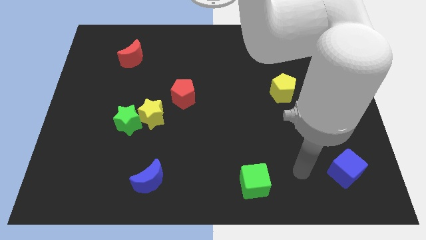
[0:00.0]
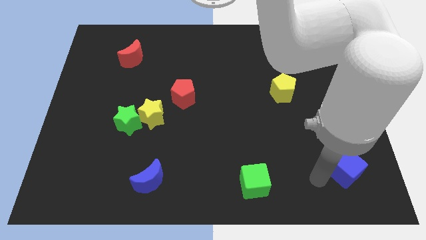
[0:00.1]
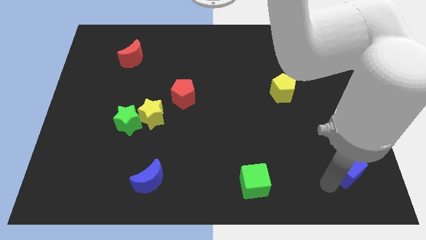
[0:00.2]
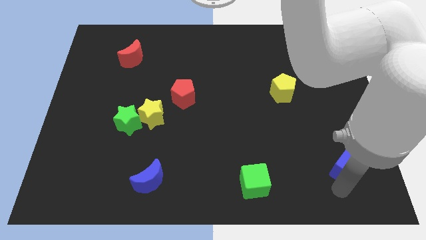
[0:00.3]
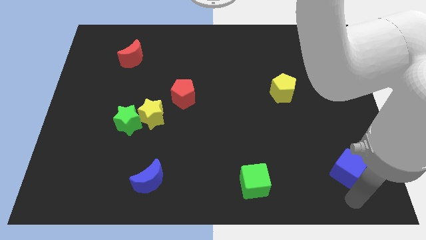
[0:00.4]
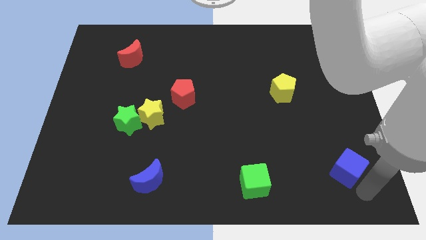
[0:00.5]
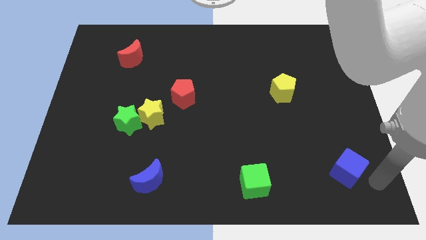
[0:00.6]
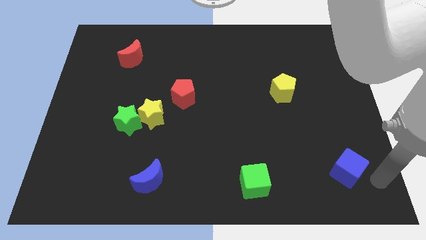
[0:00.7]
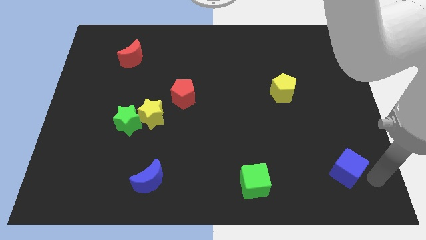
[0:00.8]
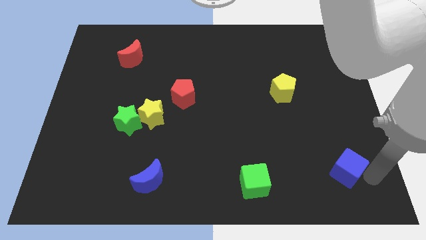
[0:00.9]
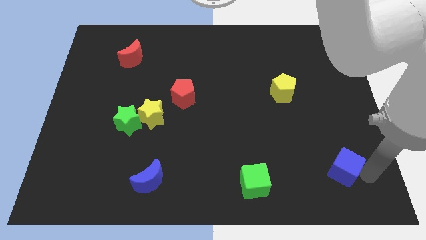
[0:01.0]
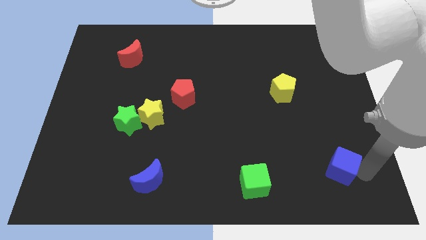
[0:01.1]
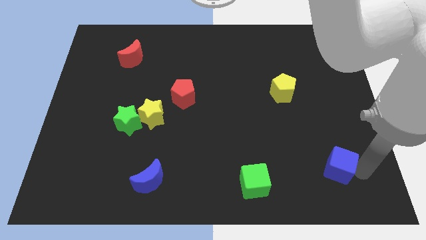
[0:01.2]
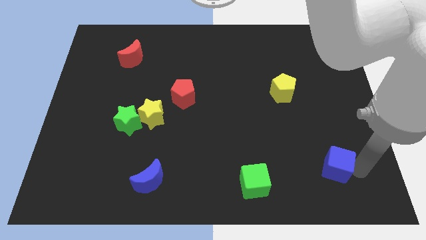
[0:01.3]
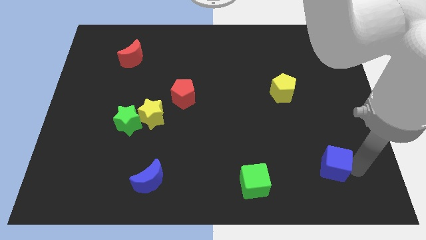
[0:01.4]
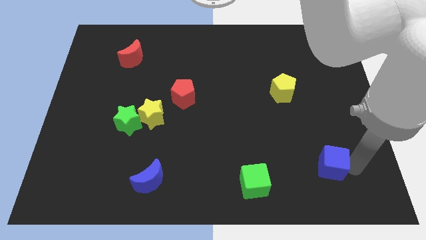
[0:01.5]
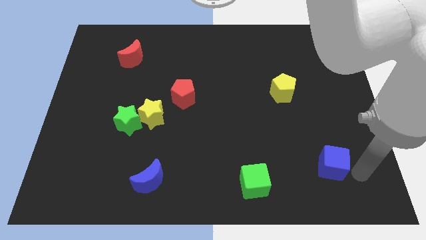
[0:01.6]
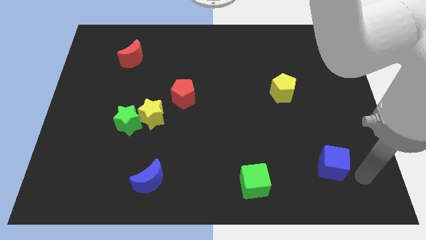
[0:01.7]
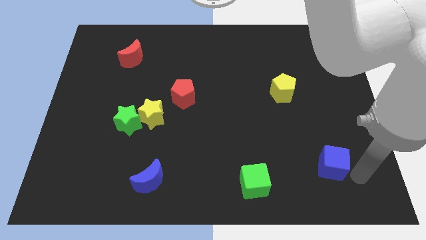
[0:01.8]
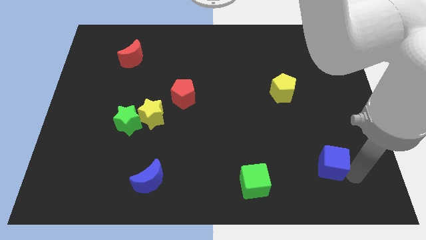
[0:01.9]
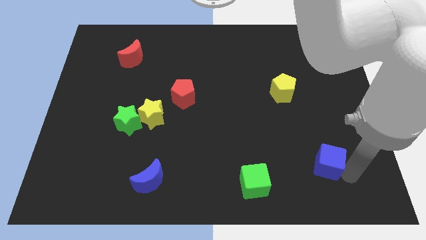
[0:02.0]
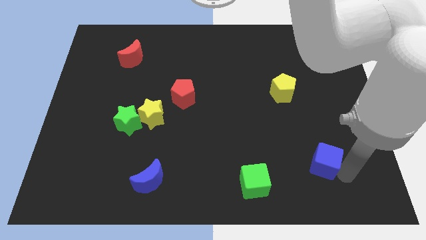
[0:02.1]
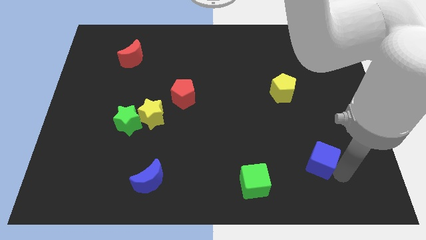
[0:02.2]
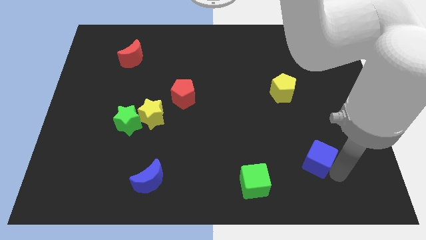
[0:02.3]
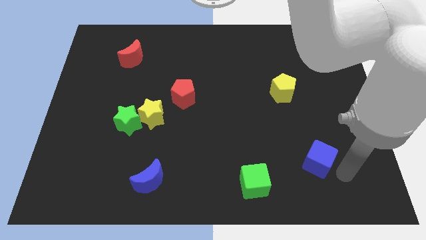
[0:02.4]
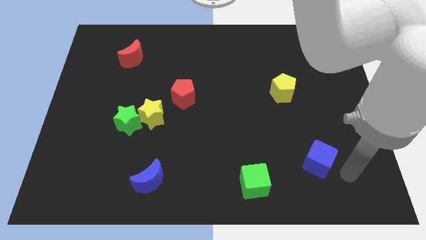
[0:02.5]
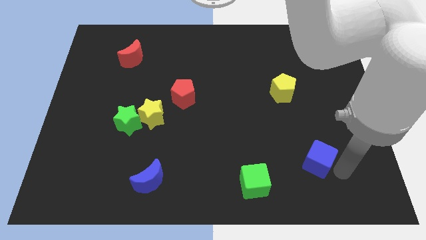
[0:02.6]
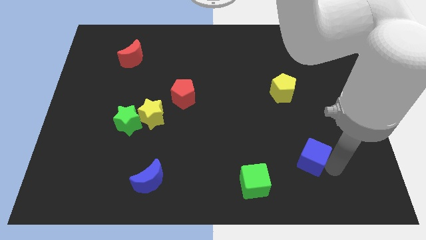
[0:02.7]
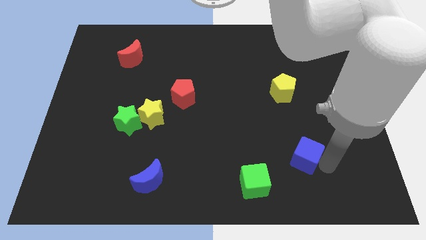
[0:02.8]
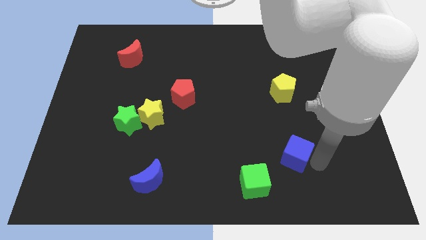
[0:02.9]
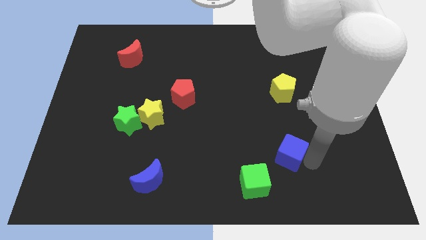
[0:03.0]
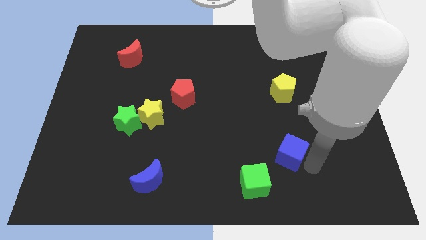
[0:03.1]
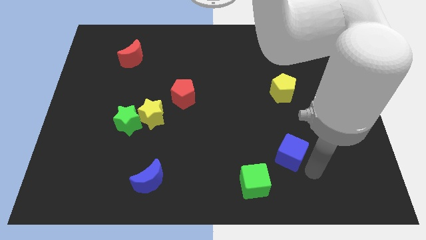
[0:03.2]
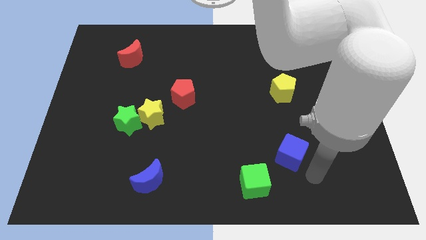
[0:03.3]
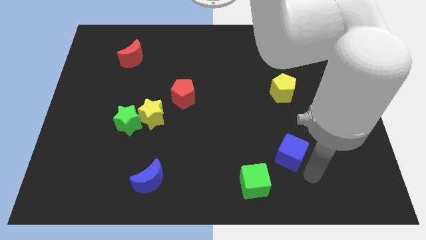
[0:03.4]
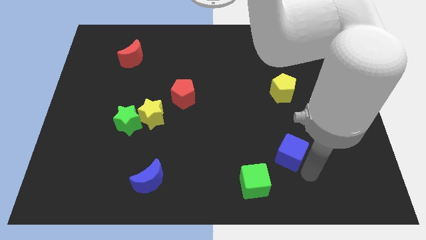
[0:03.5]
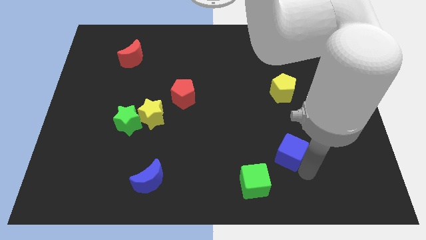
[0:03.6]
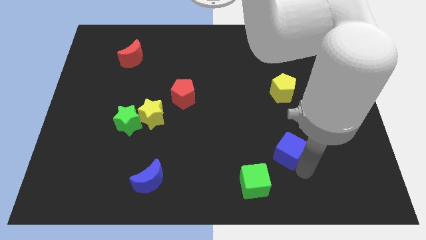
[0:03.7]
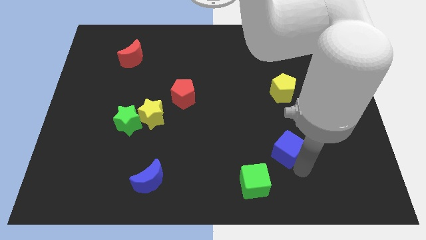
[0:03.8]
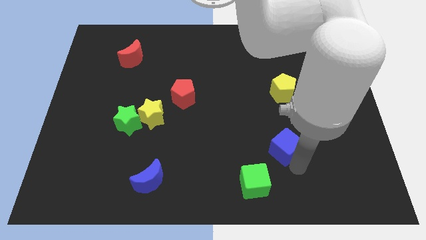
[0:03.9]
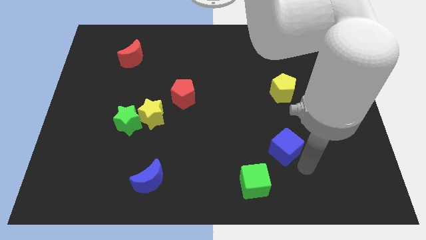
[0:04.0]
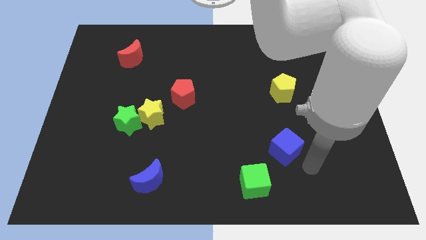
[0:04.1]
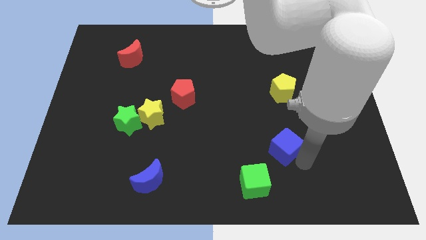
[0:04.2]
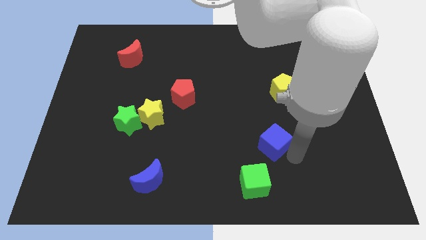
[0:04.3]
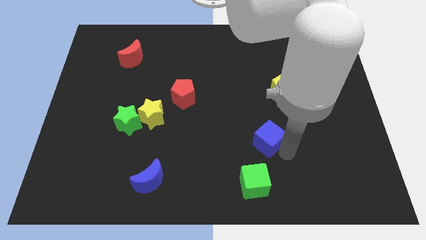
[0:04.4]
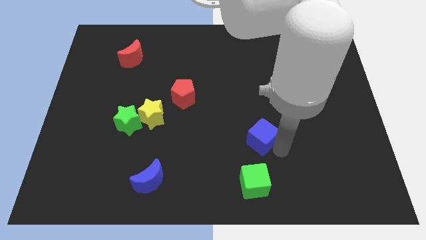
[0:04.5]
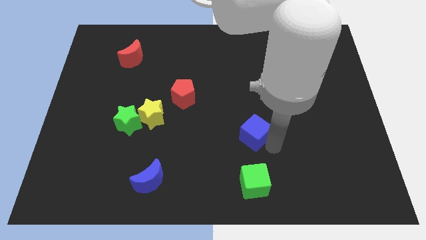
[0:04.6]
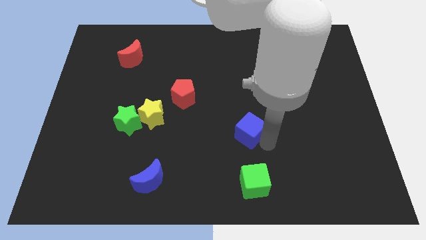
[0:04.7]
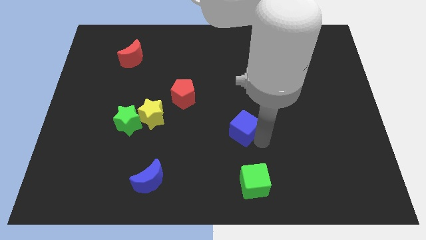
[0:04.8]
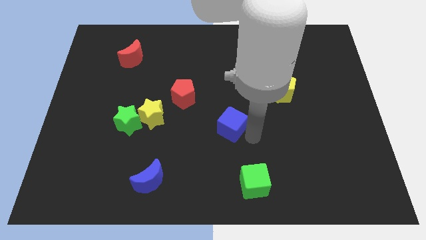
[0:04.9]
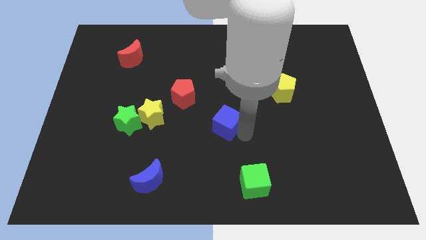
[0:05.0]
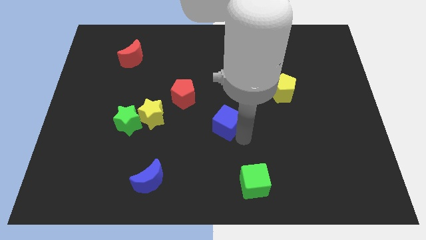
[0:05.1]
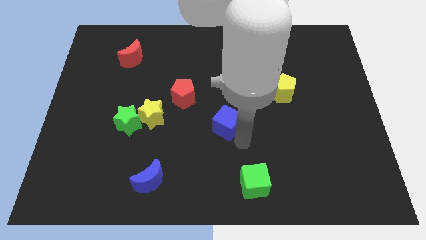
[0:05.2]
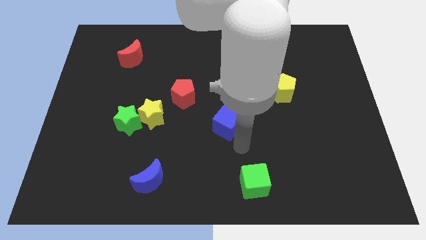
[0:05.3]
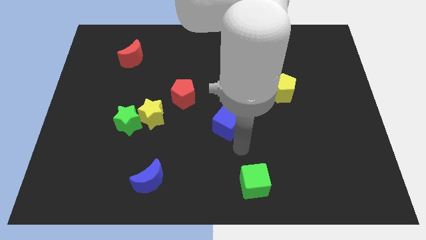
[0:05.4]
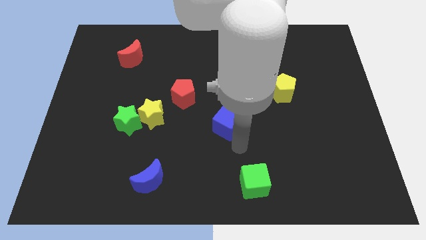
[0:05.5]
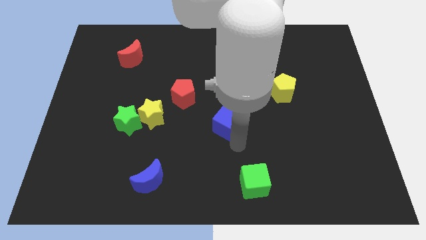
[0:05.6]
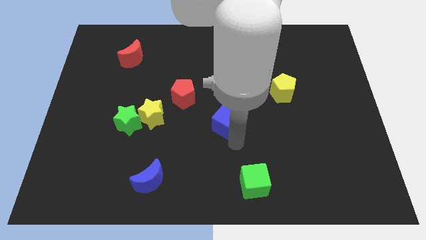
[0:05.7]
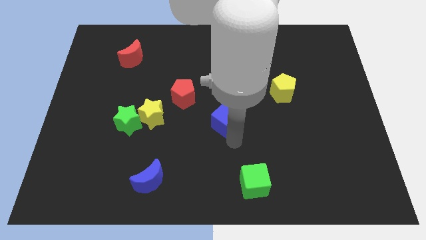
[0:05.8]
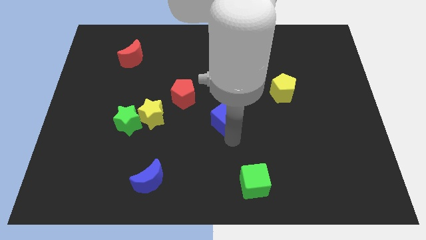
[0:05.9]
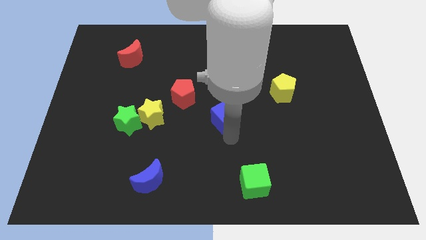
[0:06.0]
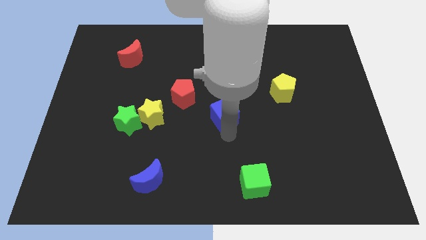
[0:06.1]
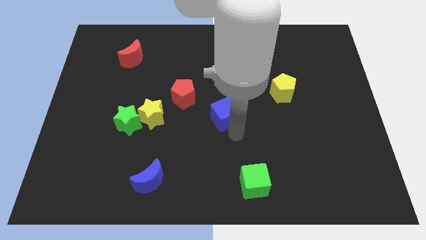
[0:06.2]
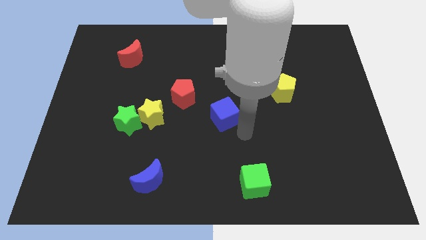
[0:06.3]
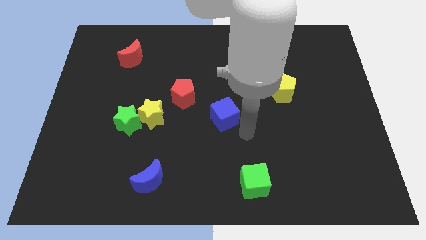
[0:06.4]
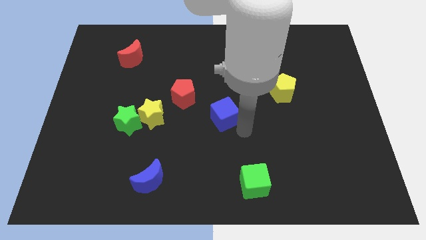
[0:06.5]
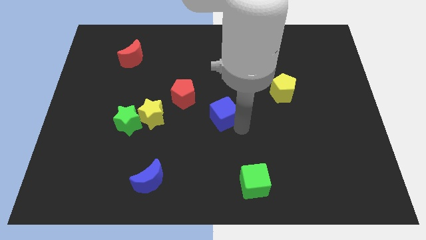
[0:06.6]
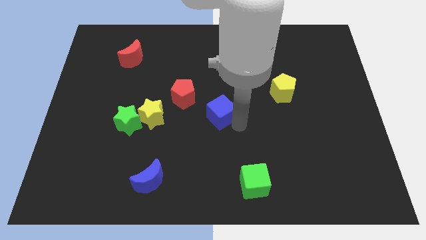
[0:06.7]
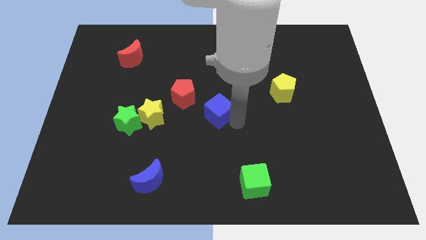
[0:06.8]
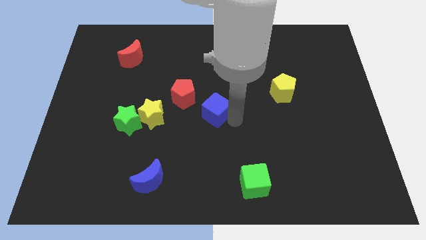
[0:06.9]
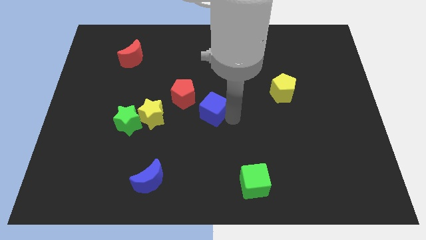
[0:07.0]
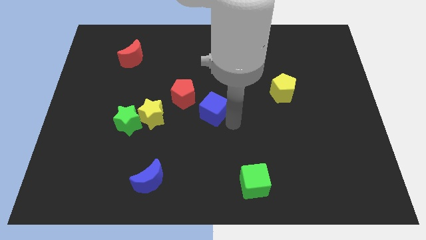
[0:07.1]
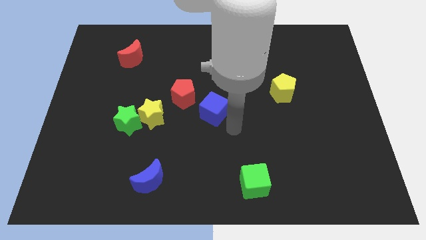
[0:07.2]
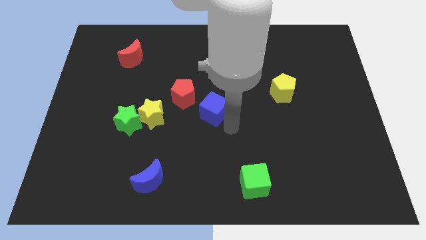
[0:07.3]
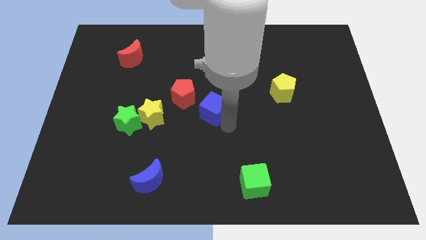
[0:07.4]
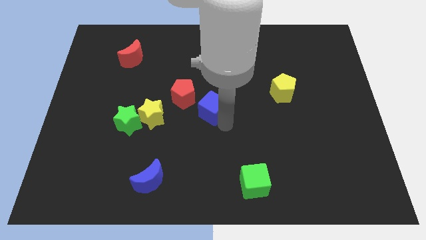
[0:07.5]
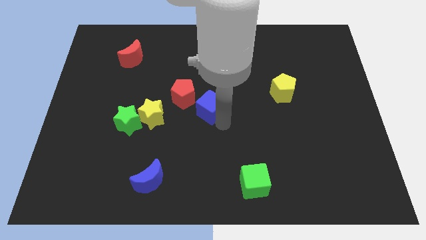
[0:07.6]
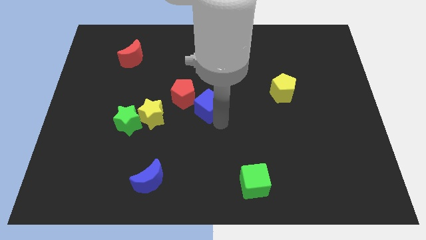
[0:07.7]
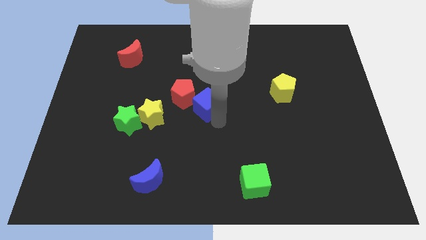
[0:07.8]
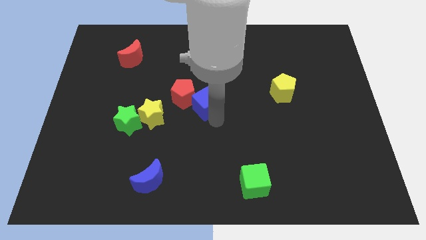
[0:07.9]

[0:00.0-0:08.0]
slide the blue cube close to the red pentagon
